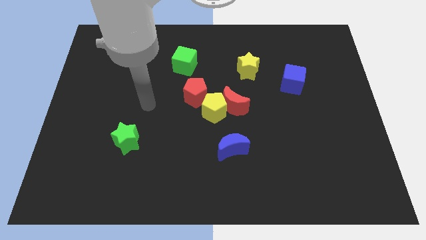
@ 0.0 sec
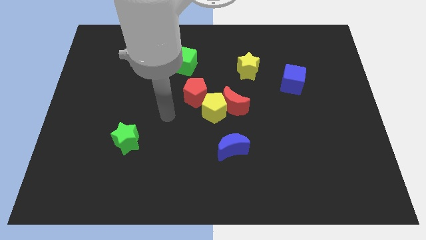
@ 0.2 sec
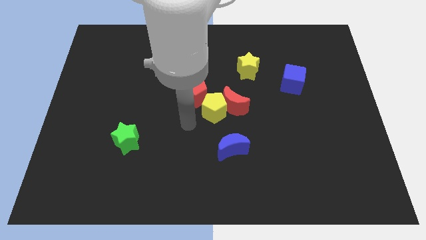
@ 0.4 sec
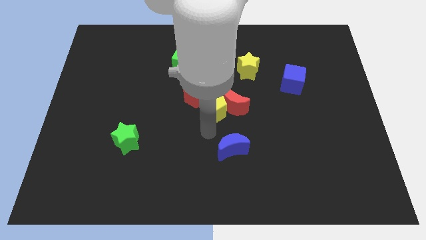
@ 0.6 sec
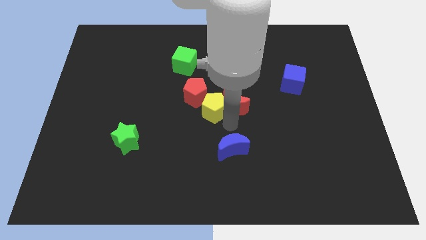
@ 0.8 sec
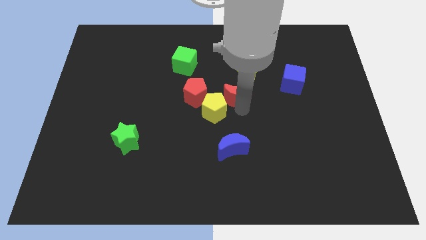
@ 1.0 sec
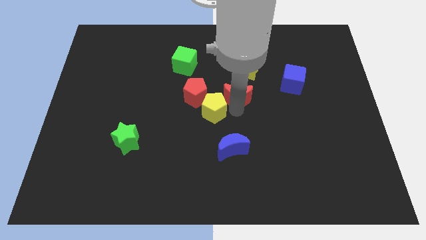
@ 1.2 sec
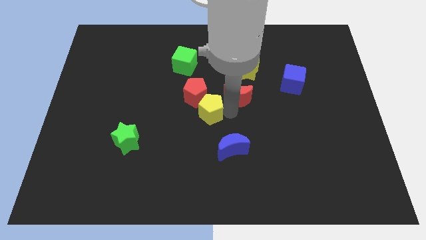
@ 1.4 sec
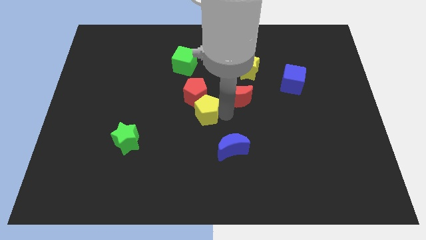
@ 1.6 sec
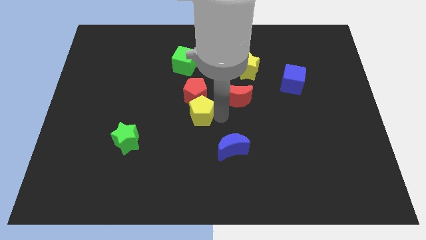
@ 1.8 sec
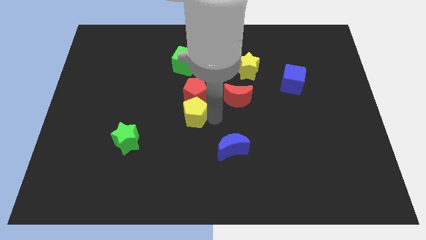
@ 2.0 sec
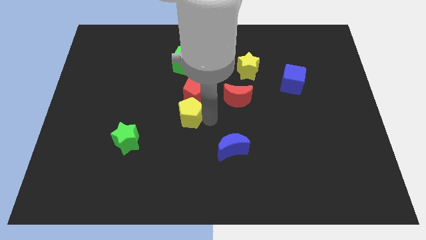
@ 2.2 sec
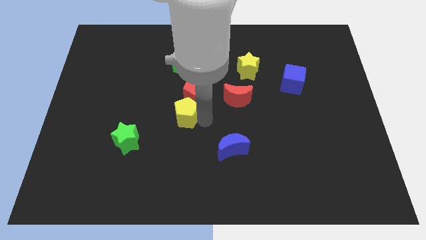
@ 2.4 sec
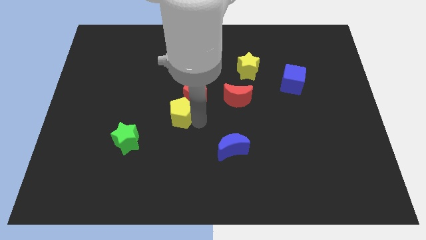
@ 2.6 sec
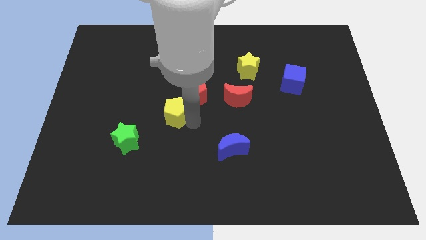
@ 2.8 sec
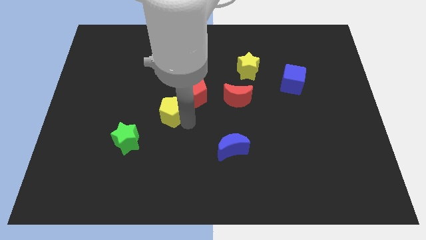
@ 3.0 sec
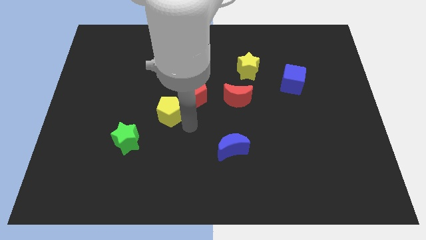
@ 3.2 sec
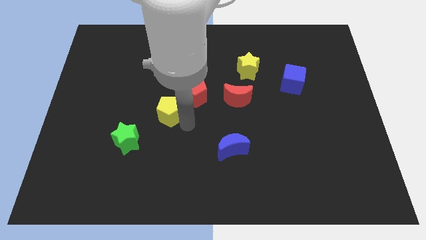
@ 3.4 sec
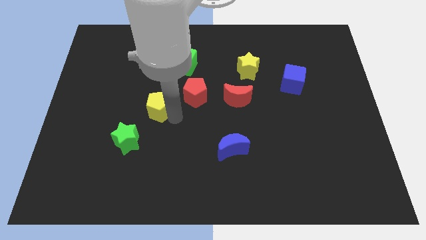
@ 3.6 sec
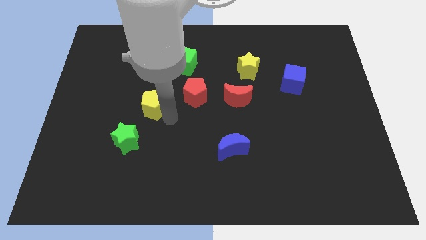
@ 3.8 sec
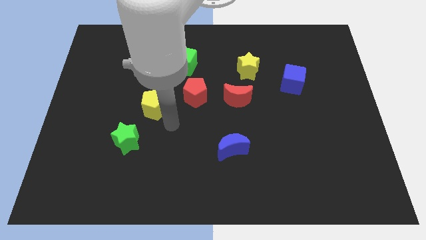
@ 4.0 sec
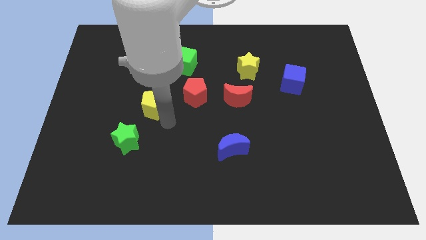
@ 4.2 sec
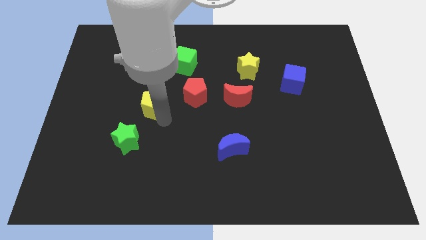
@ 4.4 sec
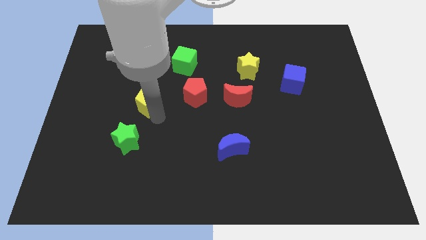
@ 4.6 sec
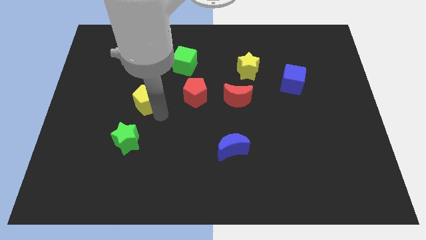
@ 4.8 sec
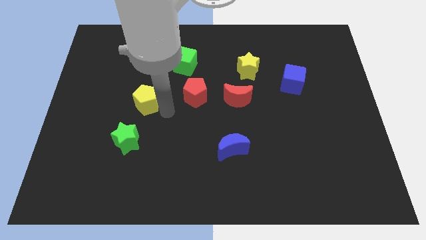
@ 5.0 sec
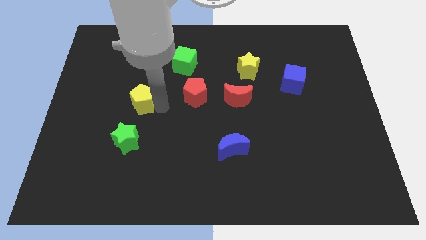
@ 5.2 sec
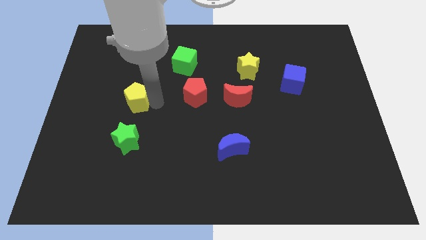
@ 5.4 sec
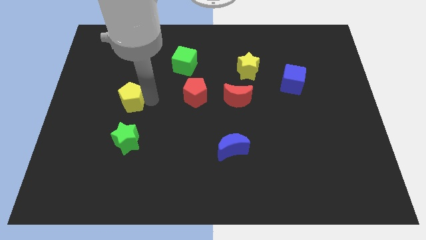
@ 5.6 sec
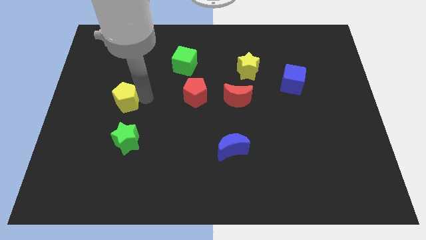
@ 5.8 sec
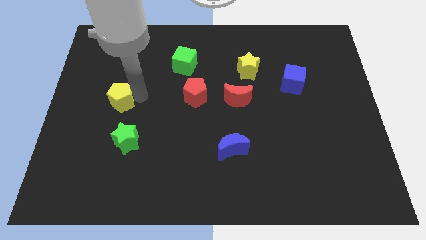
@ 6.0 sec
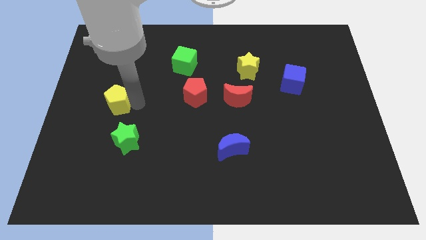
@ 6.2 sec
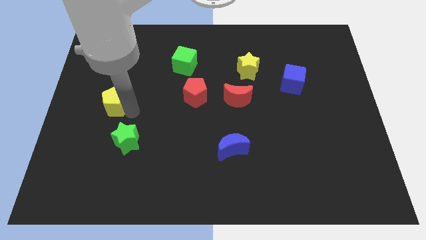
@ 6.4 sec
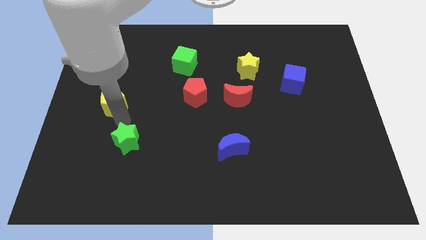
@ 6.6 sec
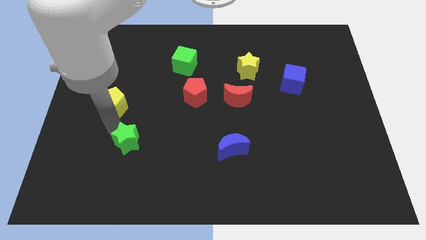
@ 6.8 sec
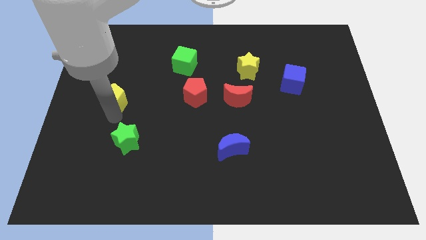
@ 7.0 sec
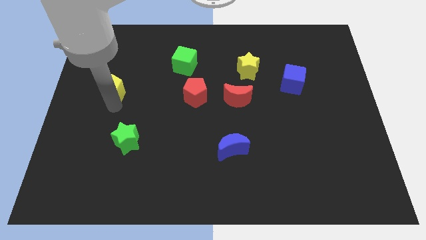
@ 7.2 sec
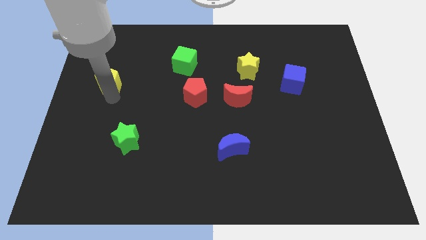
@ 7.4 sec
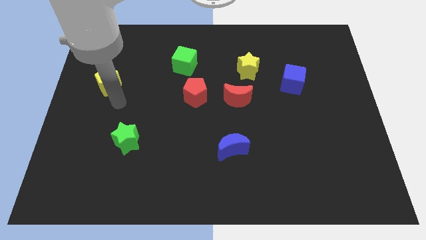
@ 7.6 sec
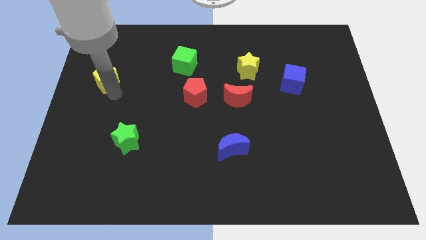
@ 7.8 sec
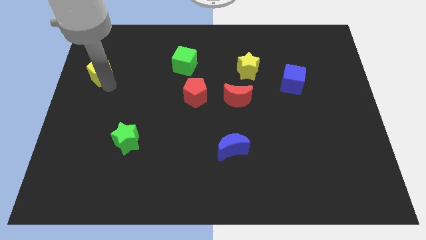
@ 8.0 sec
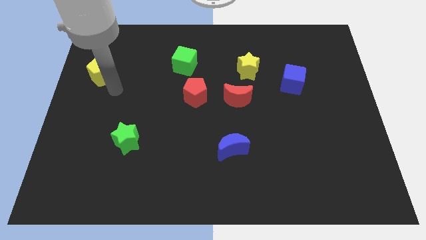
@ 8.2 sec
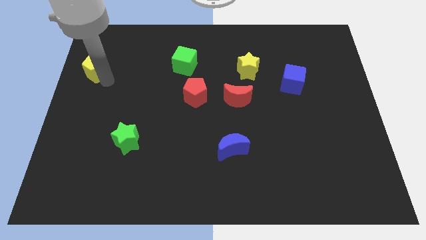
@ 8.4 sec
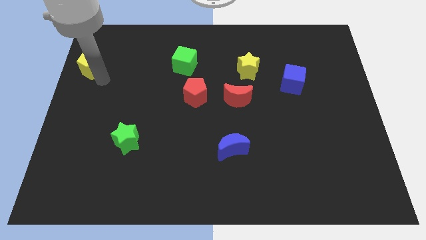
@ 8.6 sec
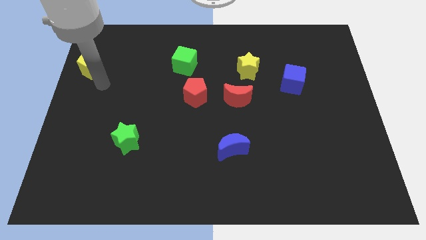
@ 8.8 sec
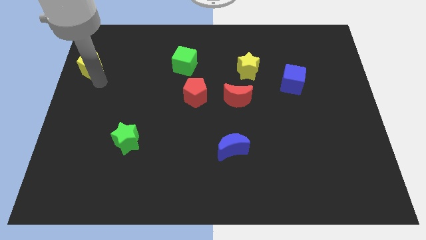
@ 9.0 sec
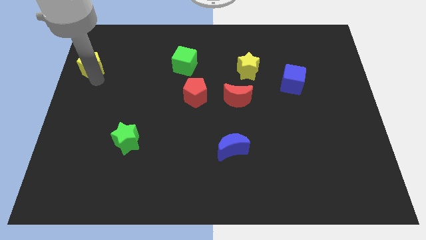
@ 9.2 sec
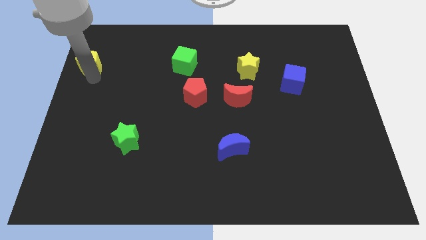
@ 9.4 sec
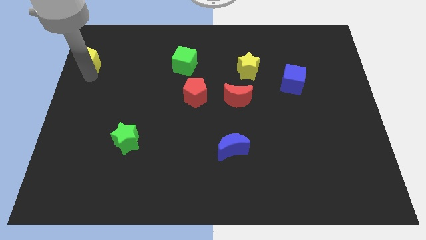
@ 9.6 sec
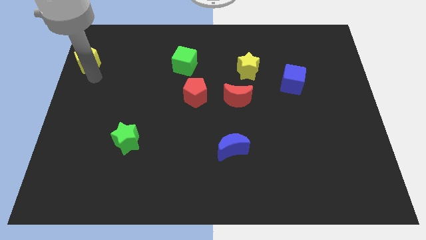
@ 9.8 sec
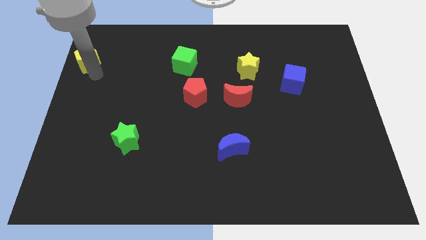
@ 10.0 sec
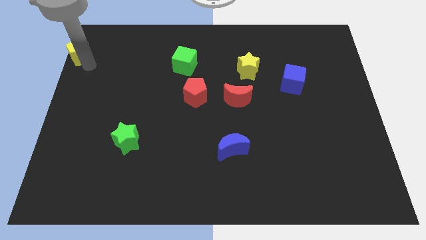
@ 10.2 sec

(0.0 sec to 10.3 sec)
push the yellow pentagon to the top left of the board
